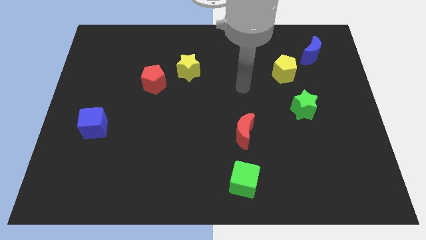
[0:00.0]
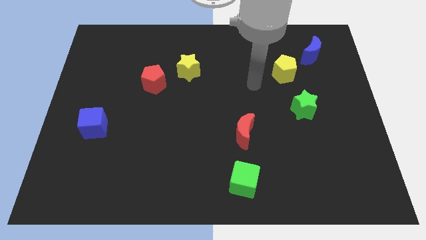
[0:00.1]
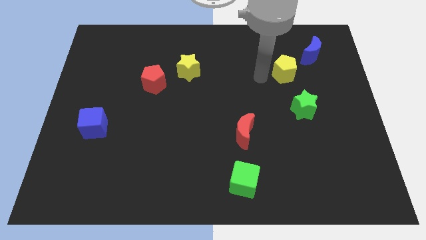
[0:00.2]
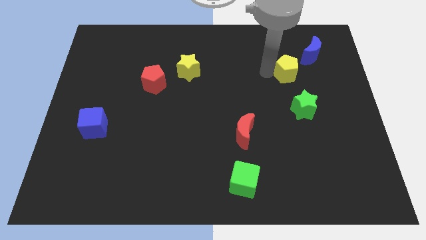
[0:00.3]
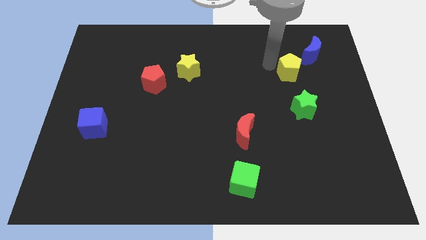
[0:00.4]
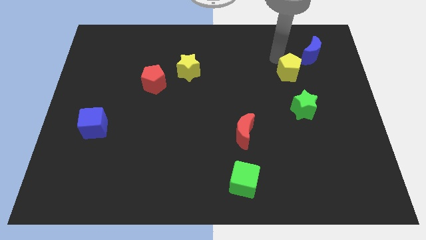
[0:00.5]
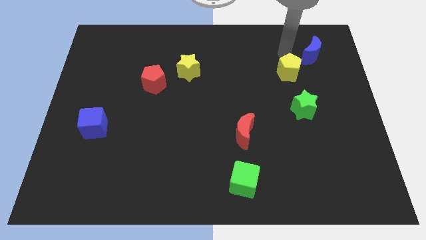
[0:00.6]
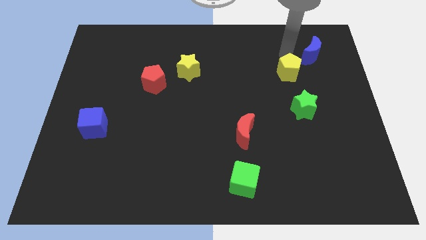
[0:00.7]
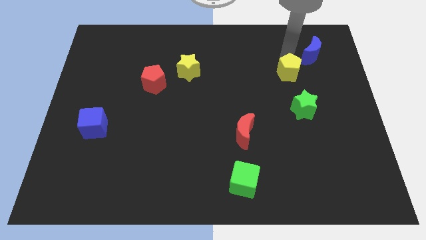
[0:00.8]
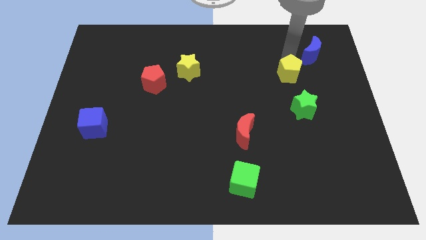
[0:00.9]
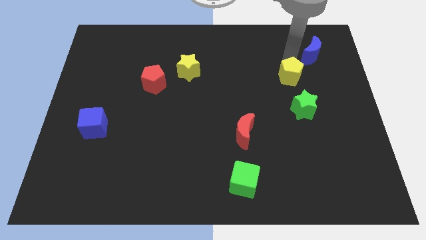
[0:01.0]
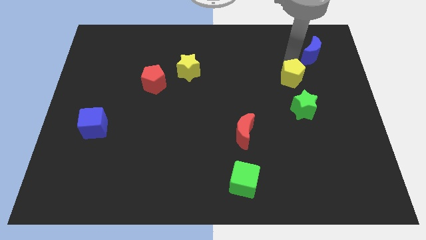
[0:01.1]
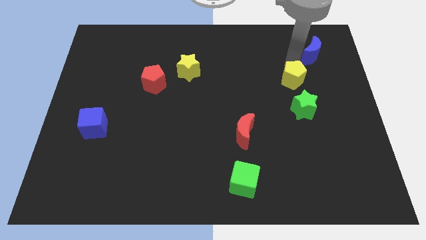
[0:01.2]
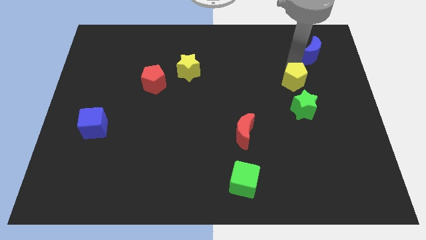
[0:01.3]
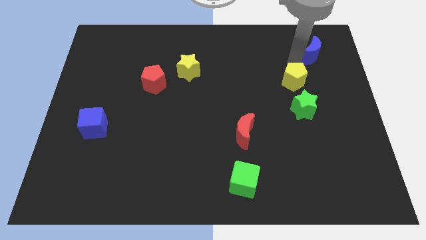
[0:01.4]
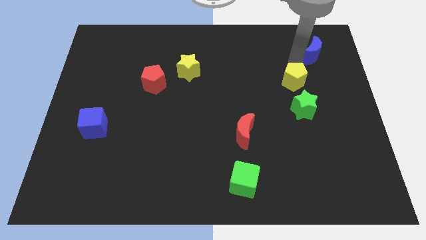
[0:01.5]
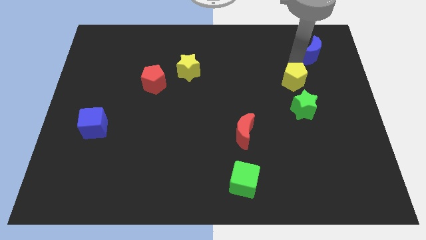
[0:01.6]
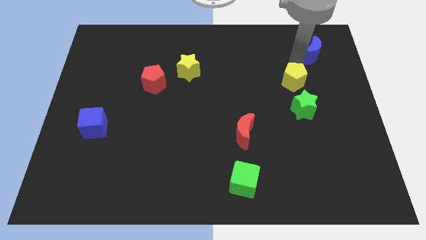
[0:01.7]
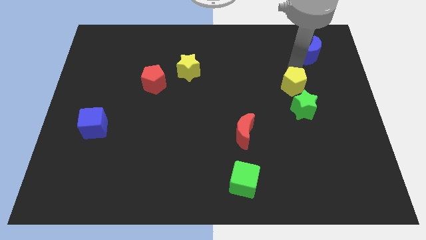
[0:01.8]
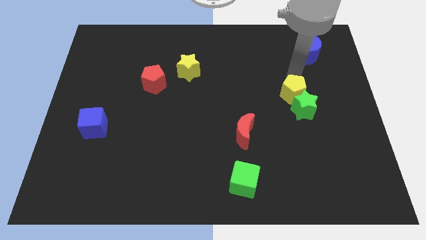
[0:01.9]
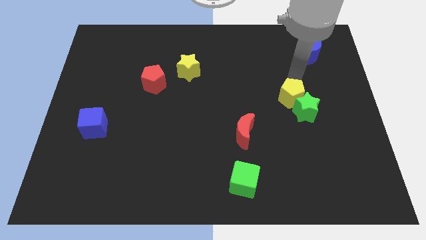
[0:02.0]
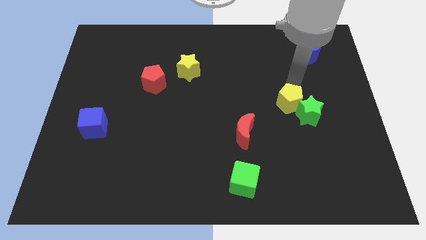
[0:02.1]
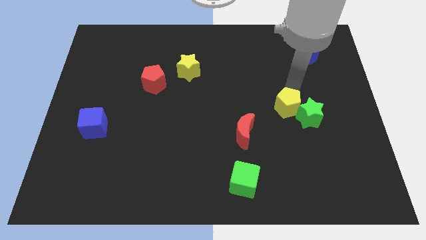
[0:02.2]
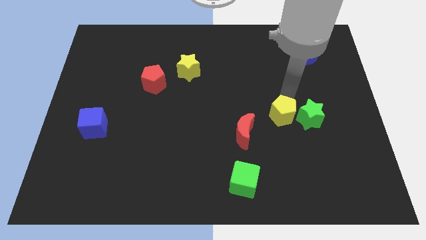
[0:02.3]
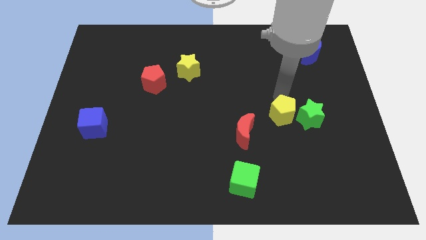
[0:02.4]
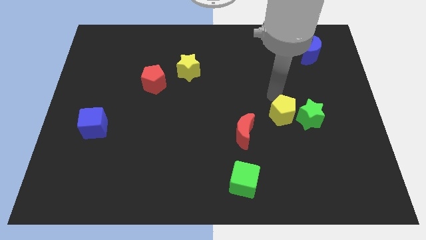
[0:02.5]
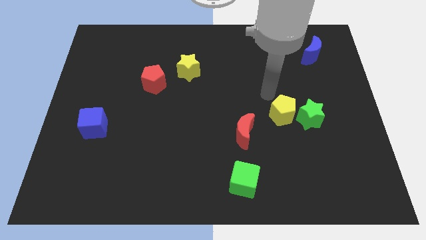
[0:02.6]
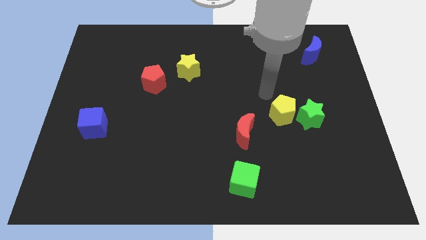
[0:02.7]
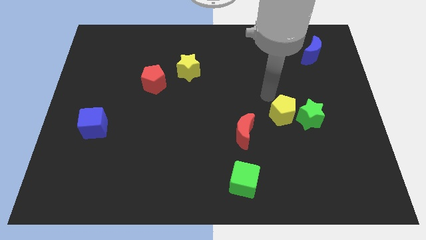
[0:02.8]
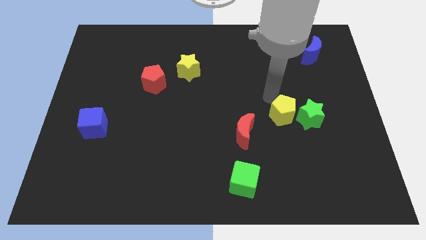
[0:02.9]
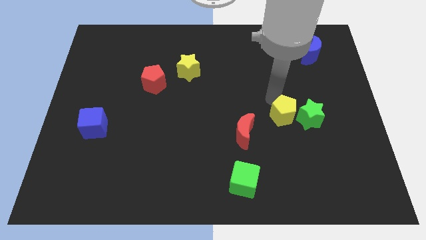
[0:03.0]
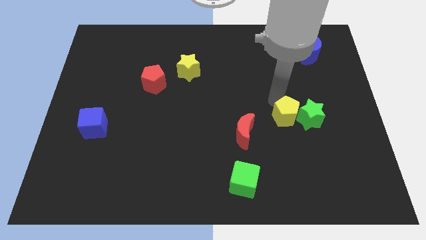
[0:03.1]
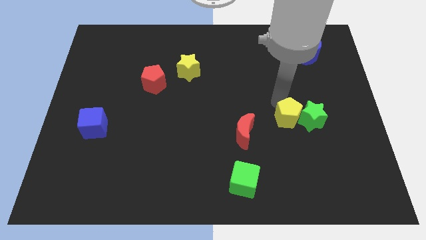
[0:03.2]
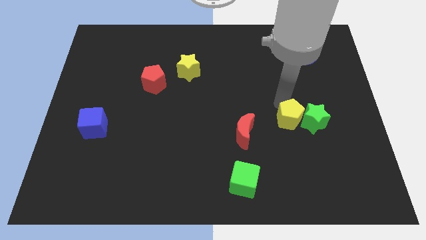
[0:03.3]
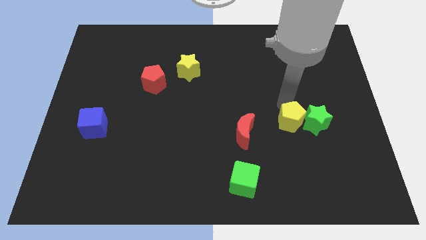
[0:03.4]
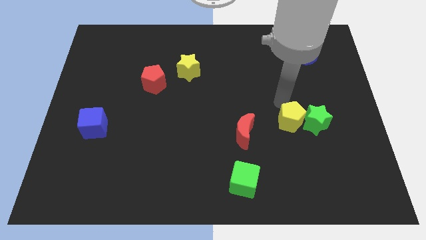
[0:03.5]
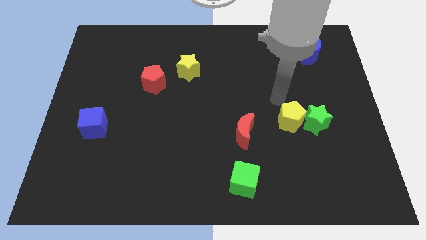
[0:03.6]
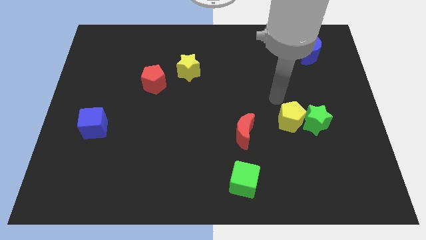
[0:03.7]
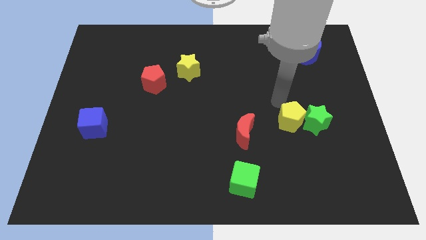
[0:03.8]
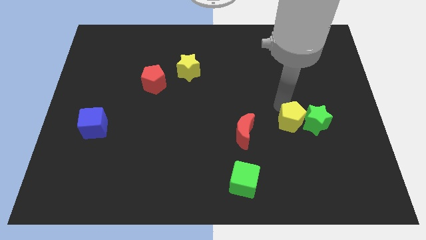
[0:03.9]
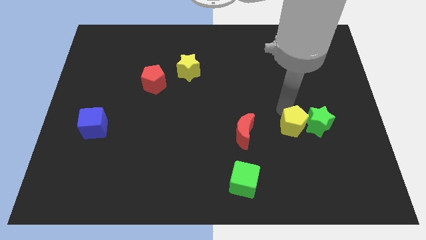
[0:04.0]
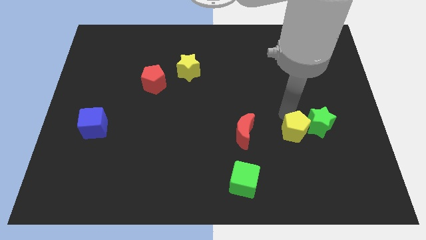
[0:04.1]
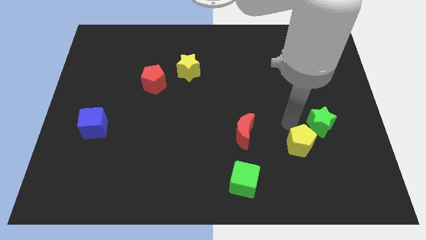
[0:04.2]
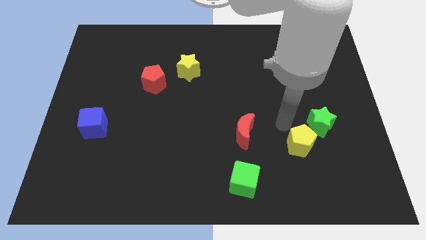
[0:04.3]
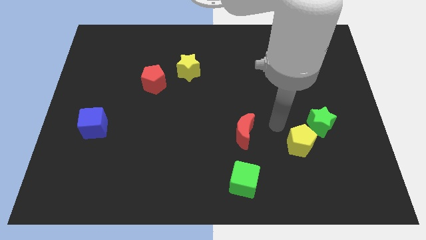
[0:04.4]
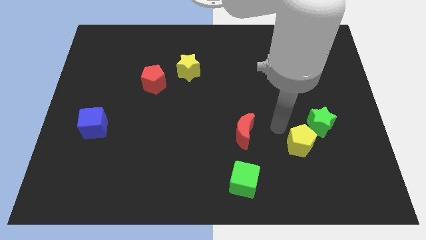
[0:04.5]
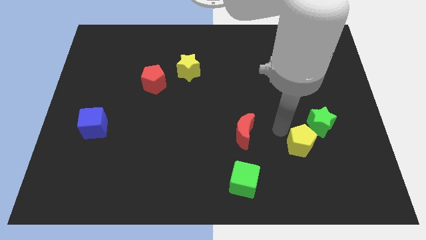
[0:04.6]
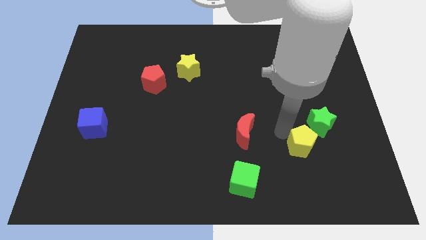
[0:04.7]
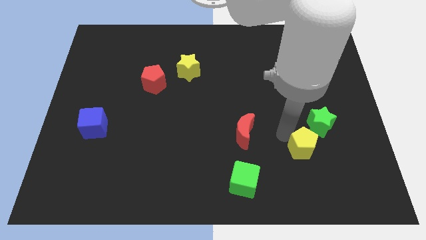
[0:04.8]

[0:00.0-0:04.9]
push the yellow pentagon below the green star
